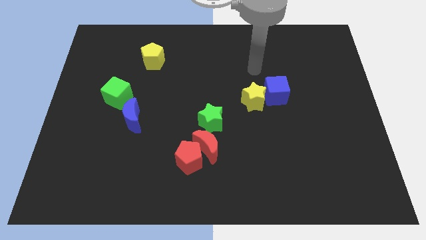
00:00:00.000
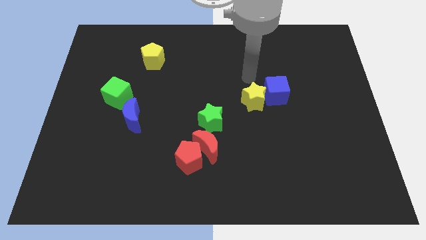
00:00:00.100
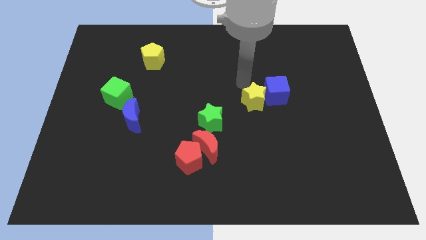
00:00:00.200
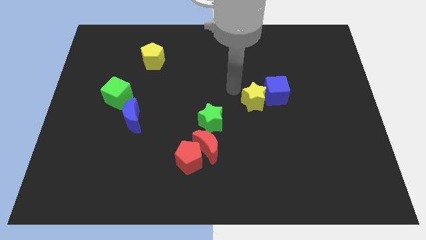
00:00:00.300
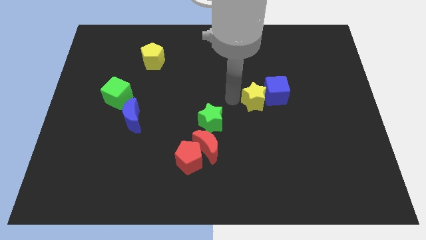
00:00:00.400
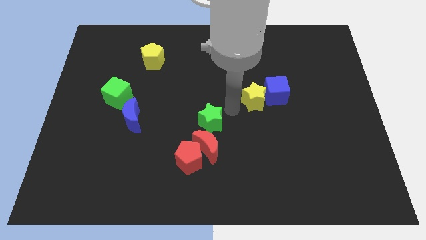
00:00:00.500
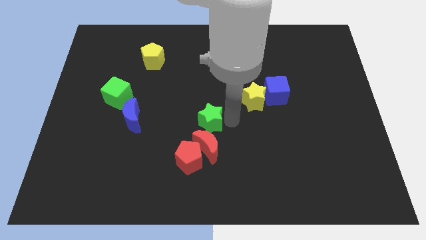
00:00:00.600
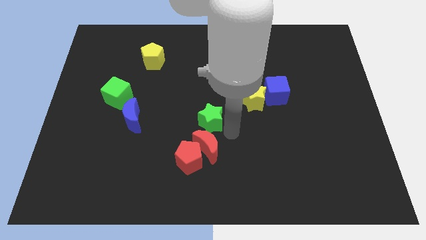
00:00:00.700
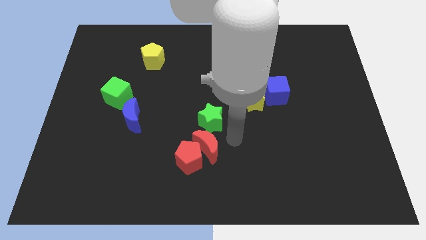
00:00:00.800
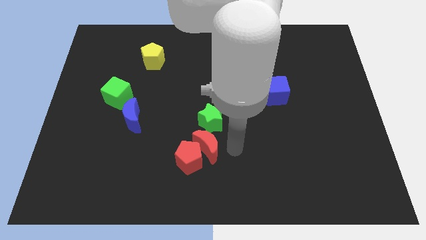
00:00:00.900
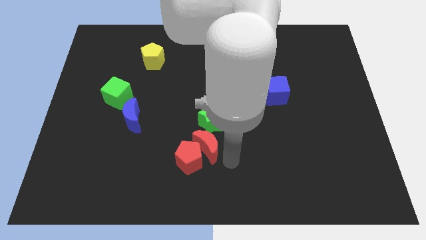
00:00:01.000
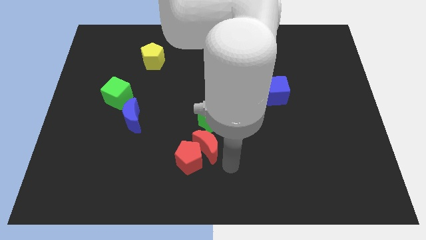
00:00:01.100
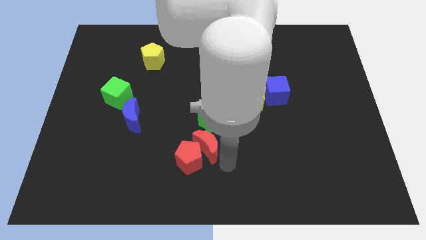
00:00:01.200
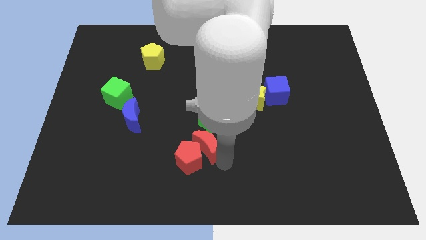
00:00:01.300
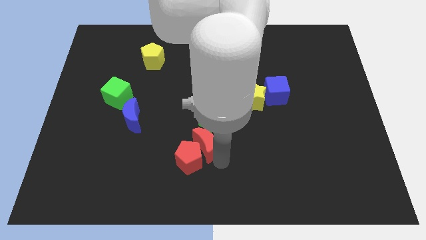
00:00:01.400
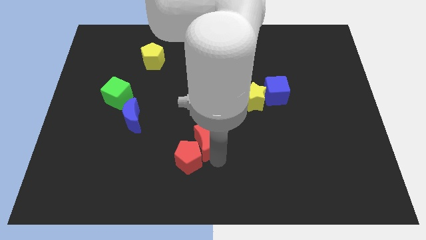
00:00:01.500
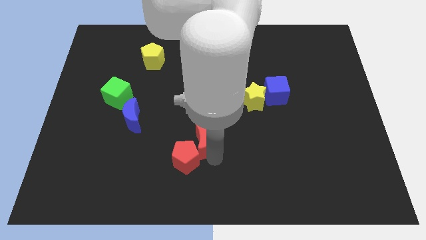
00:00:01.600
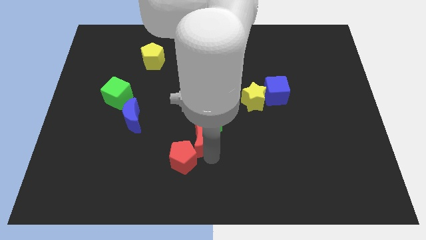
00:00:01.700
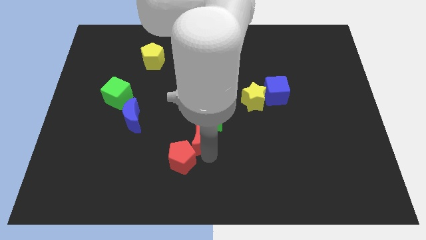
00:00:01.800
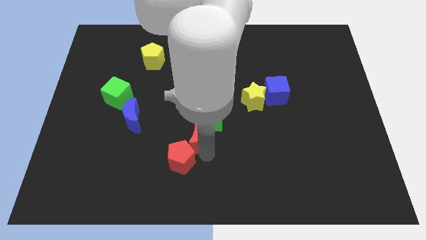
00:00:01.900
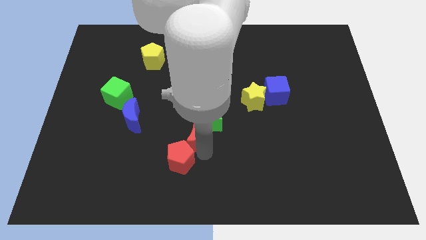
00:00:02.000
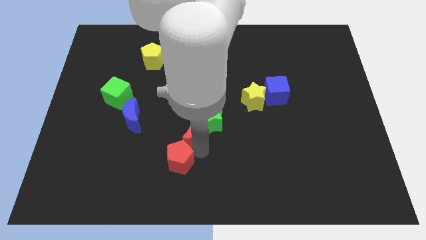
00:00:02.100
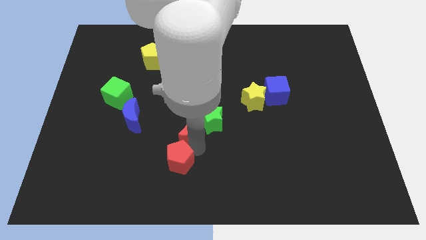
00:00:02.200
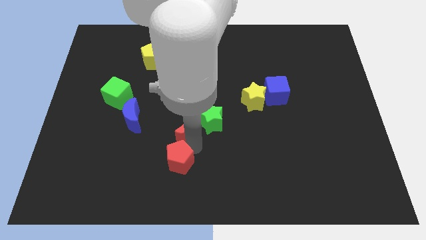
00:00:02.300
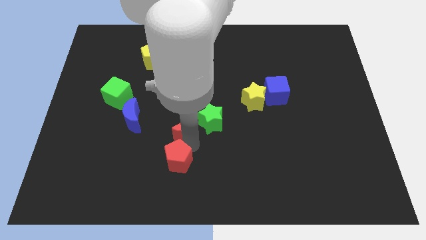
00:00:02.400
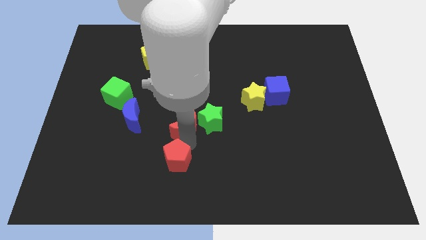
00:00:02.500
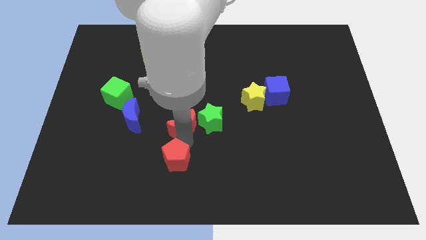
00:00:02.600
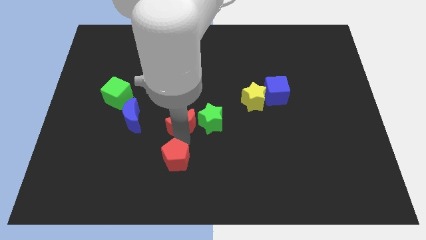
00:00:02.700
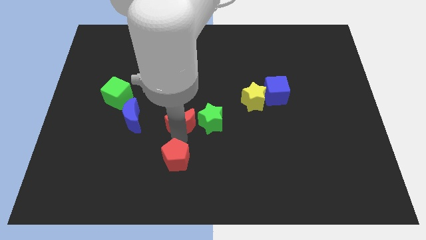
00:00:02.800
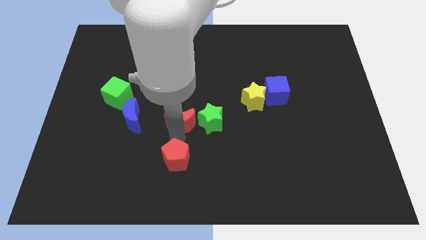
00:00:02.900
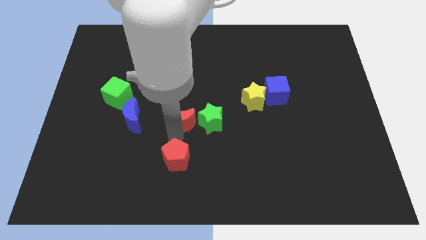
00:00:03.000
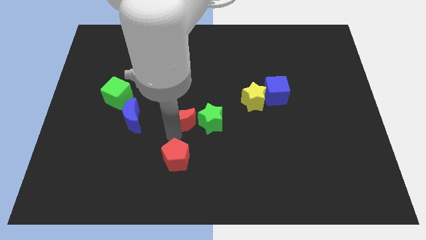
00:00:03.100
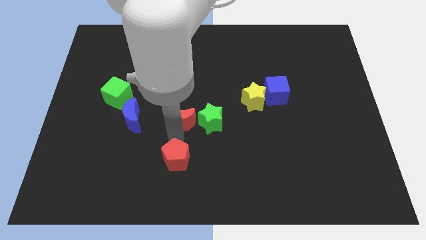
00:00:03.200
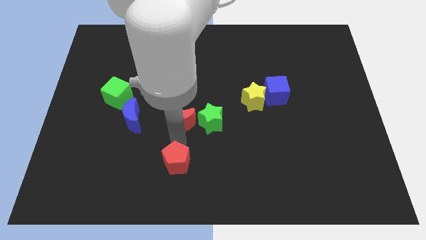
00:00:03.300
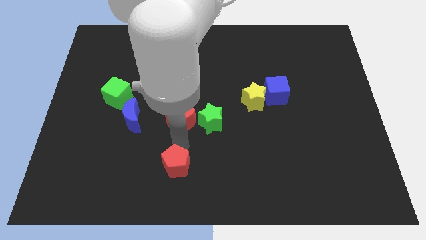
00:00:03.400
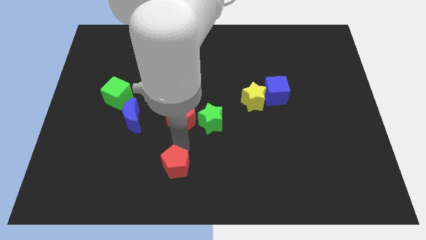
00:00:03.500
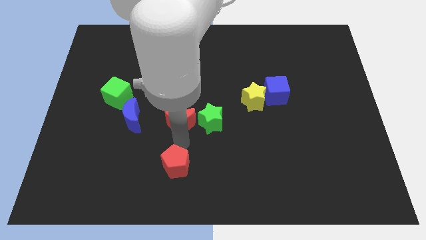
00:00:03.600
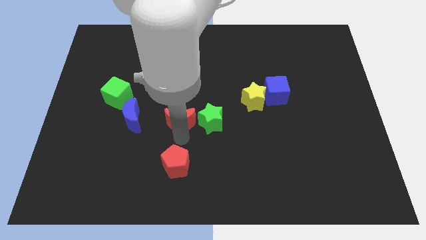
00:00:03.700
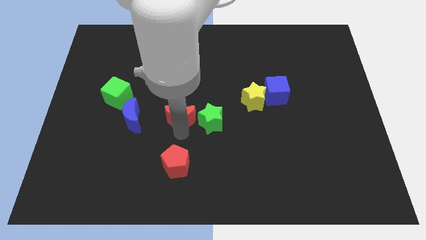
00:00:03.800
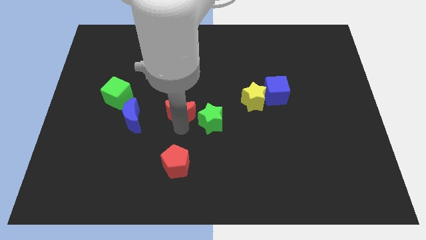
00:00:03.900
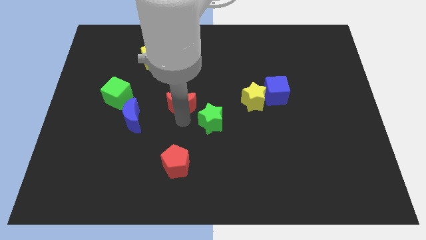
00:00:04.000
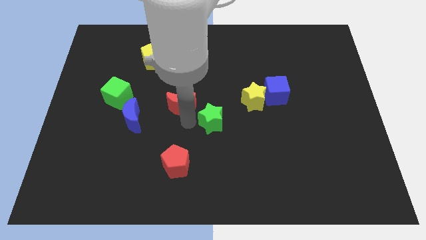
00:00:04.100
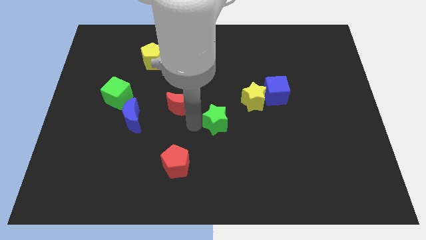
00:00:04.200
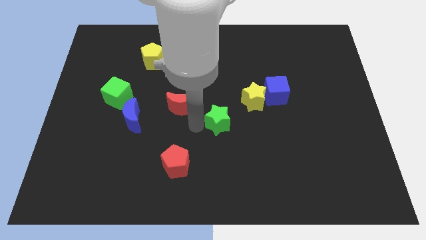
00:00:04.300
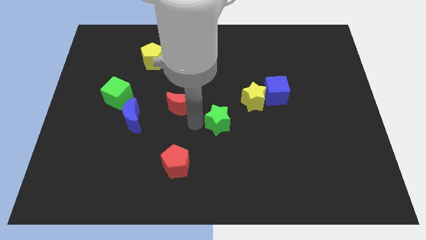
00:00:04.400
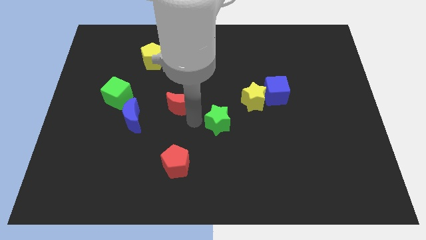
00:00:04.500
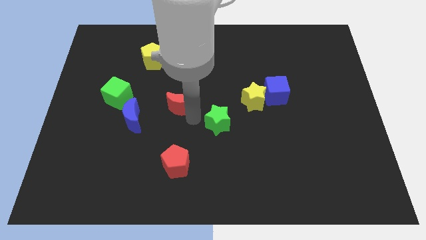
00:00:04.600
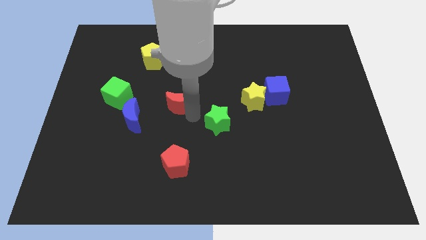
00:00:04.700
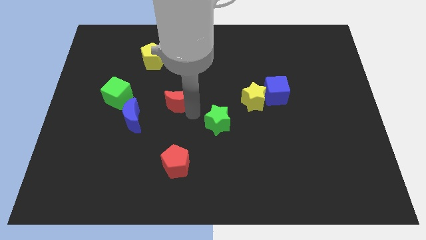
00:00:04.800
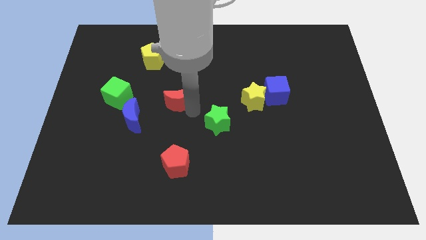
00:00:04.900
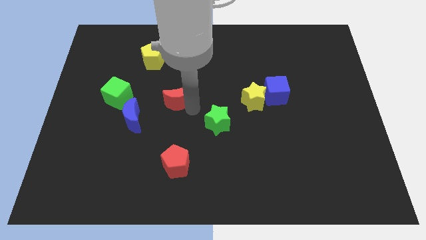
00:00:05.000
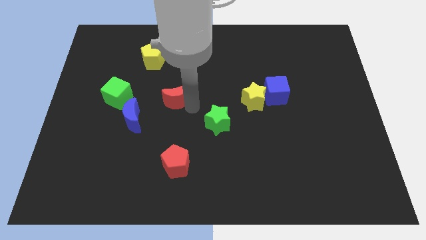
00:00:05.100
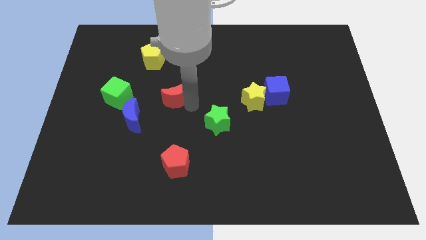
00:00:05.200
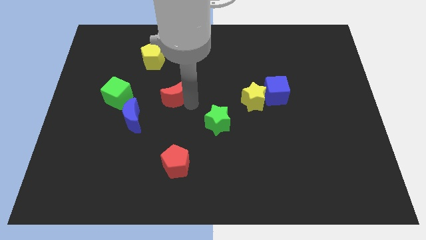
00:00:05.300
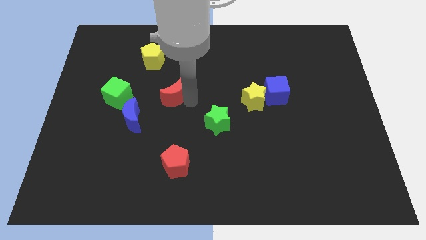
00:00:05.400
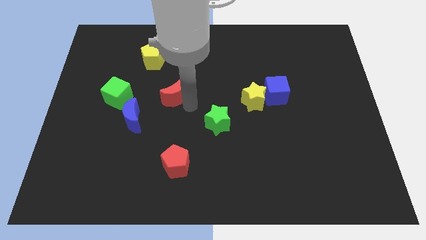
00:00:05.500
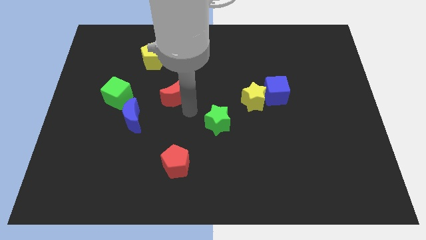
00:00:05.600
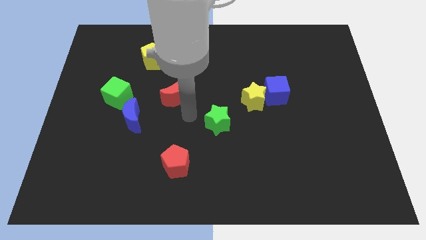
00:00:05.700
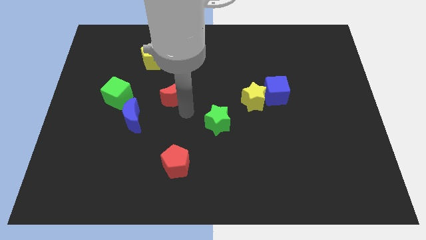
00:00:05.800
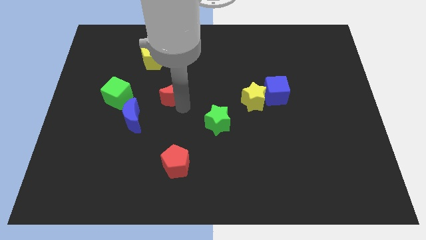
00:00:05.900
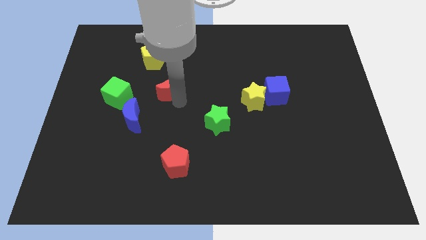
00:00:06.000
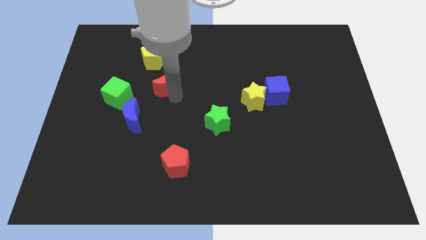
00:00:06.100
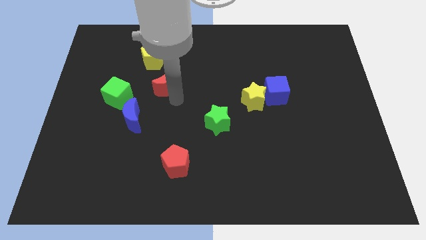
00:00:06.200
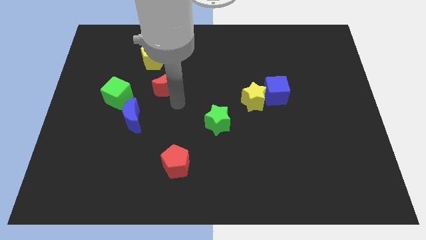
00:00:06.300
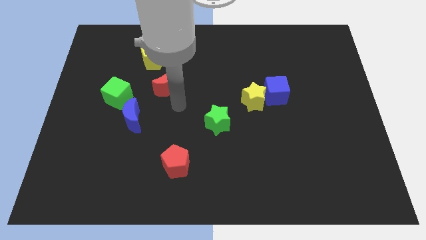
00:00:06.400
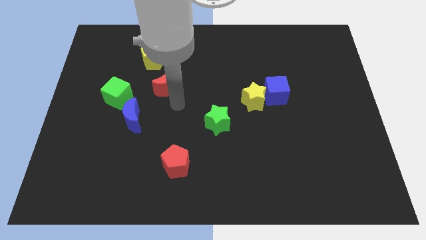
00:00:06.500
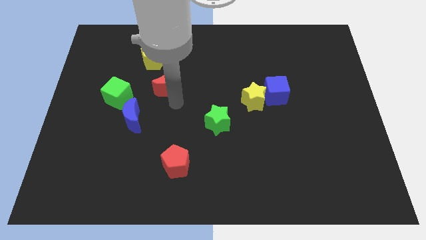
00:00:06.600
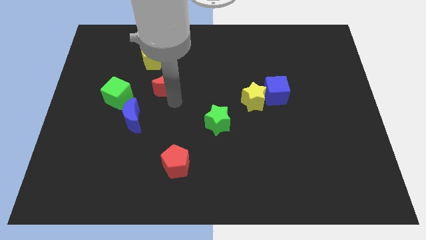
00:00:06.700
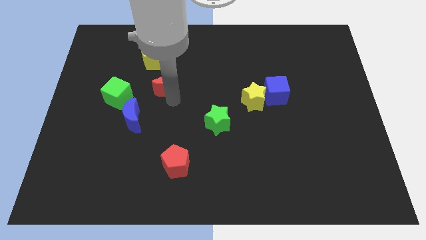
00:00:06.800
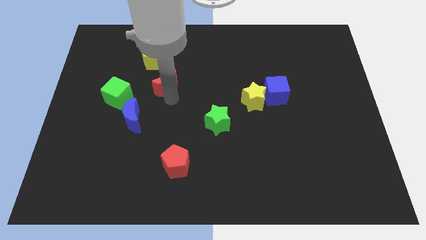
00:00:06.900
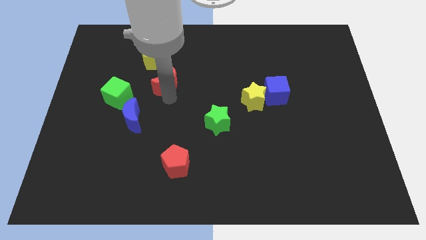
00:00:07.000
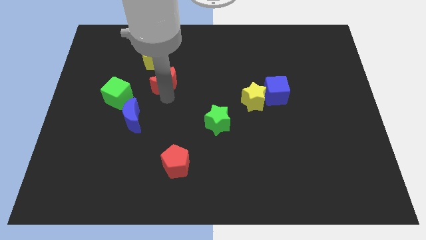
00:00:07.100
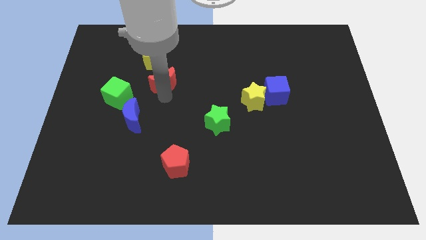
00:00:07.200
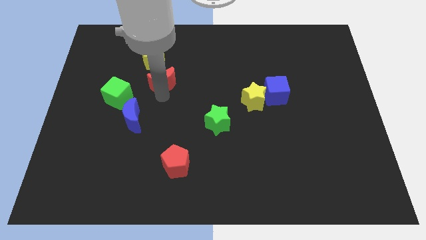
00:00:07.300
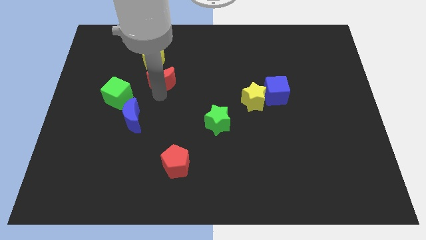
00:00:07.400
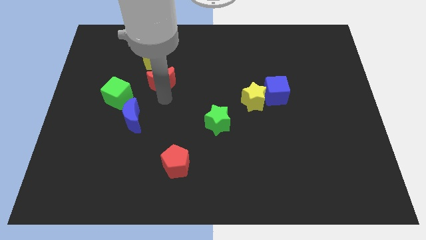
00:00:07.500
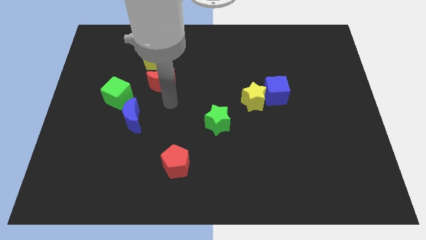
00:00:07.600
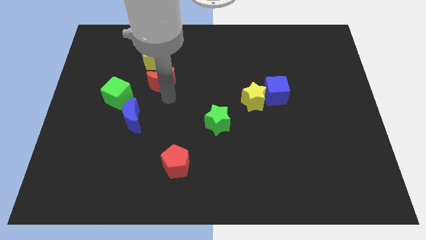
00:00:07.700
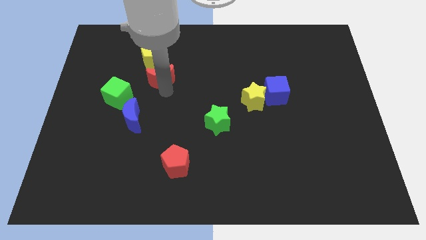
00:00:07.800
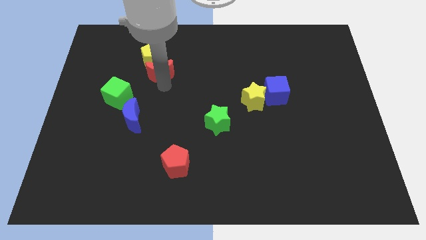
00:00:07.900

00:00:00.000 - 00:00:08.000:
move the red moon to the yellow pentagon
